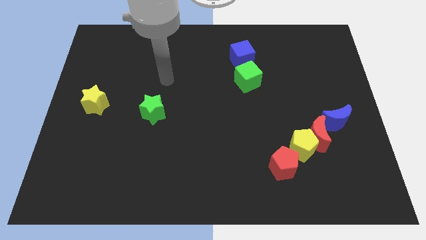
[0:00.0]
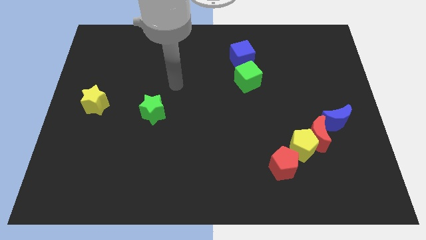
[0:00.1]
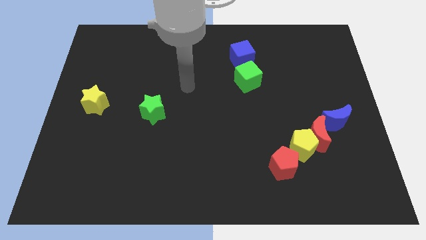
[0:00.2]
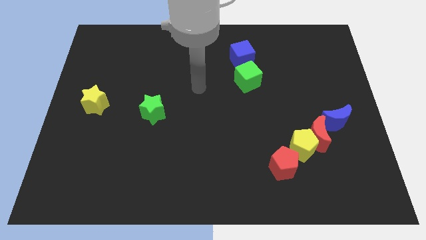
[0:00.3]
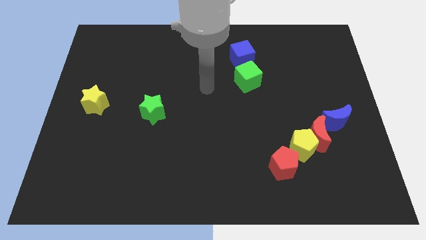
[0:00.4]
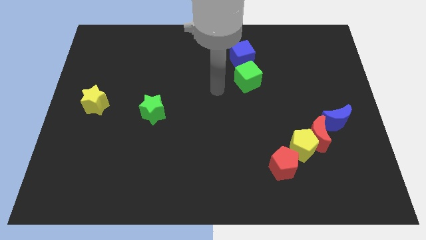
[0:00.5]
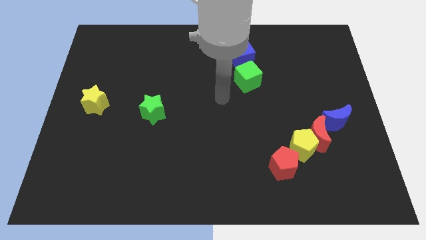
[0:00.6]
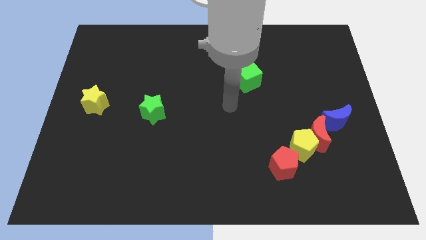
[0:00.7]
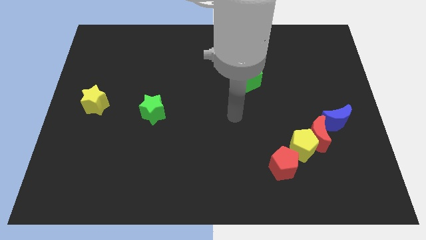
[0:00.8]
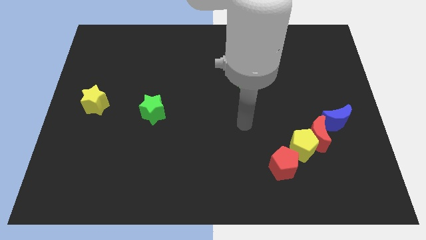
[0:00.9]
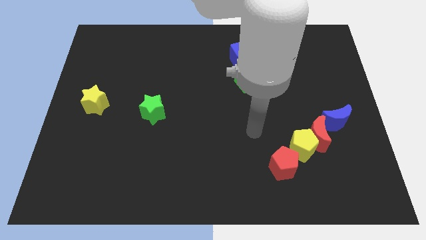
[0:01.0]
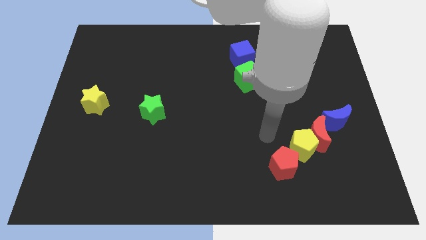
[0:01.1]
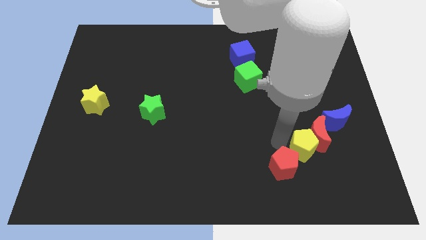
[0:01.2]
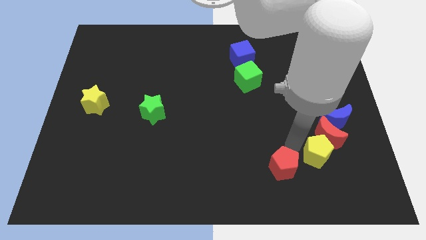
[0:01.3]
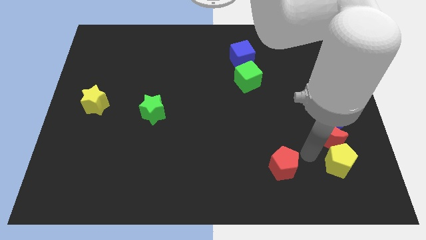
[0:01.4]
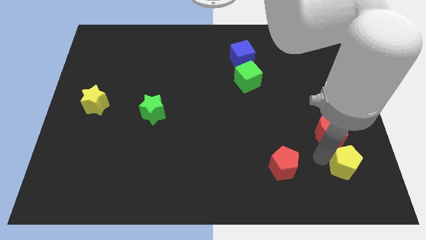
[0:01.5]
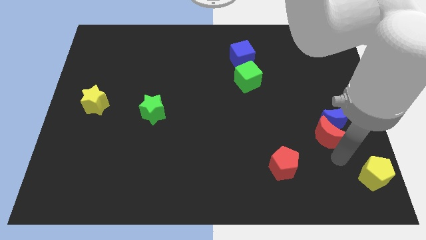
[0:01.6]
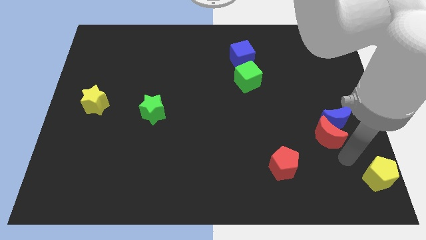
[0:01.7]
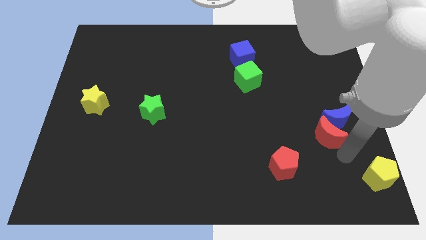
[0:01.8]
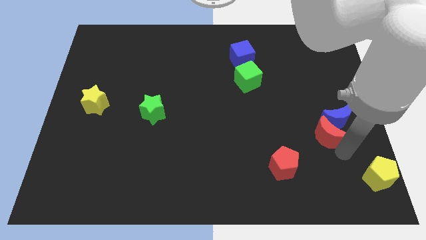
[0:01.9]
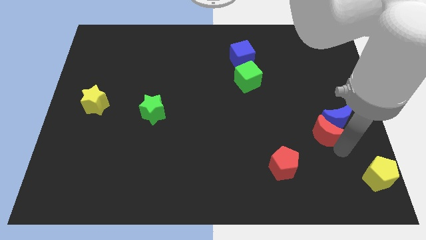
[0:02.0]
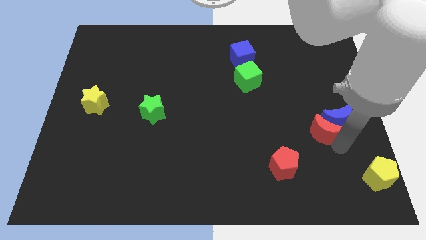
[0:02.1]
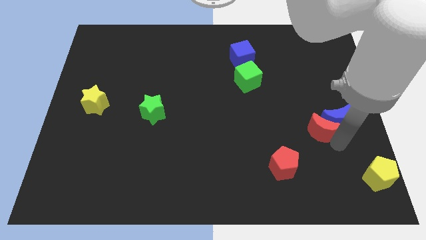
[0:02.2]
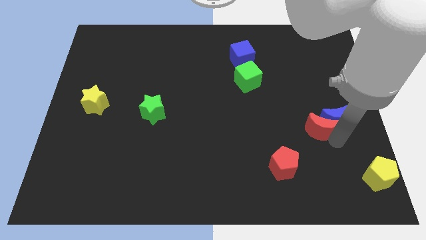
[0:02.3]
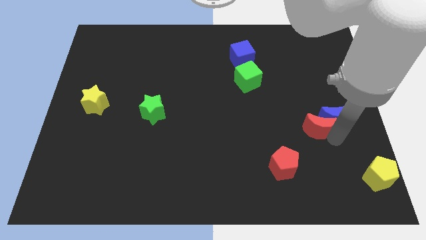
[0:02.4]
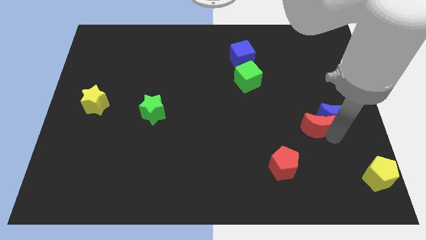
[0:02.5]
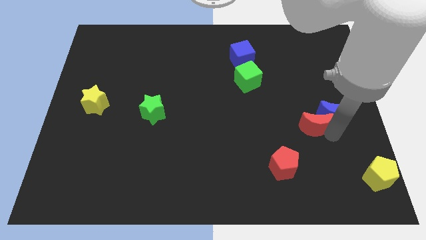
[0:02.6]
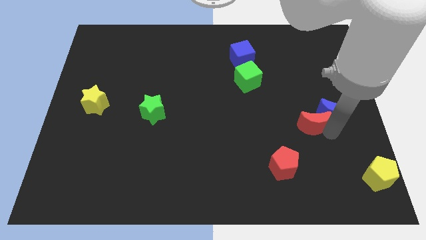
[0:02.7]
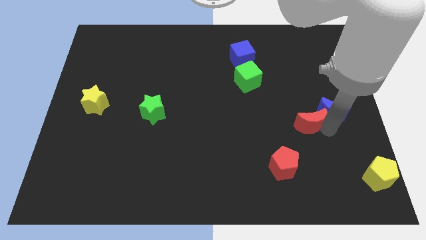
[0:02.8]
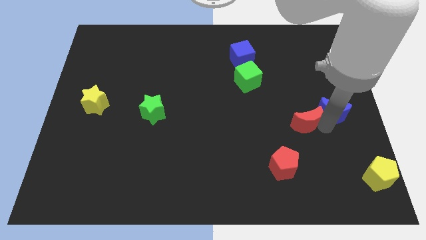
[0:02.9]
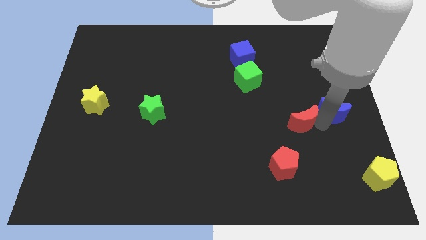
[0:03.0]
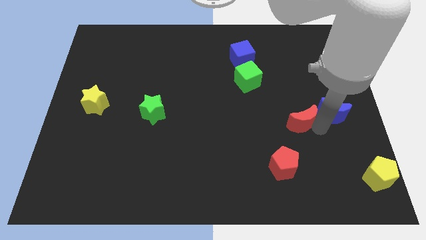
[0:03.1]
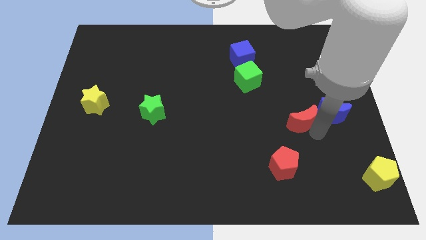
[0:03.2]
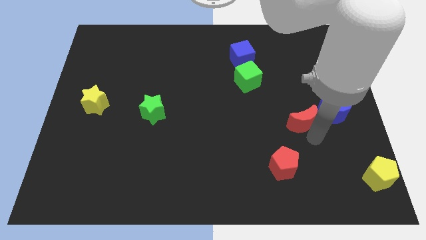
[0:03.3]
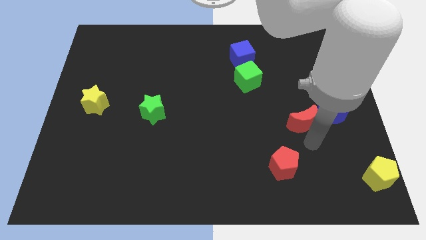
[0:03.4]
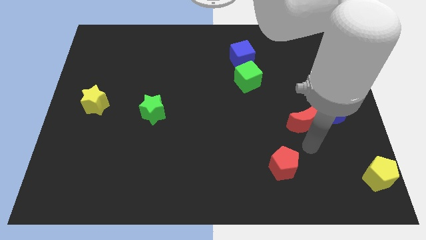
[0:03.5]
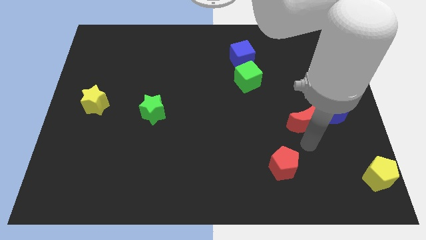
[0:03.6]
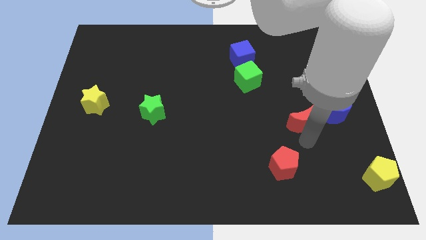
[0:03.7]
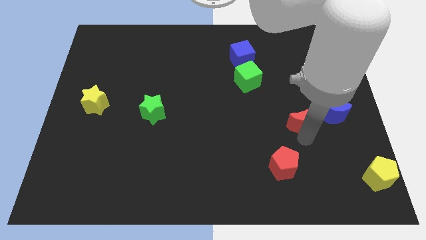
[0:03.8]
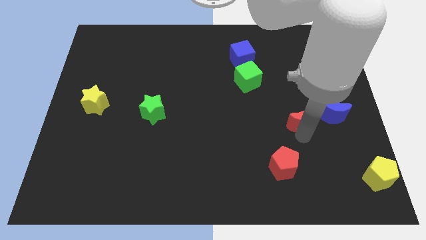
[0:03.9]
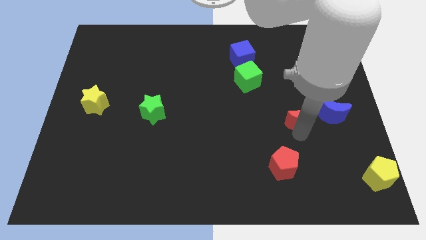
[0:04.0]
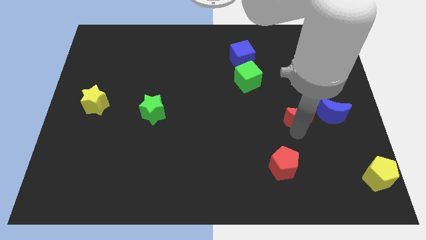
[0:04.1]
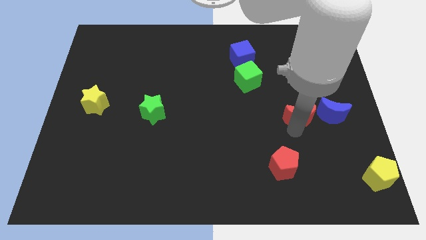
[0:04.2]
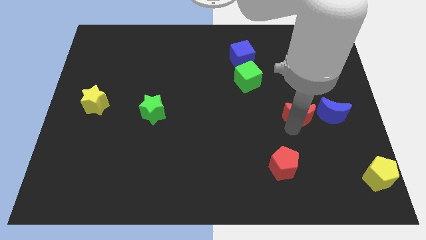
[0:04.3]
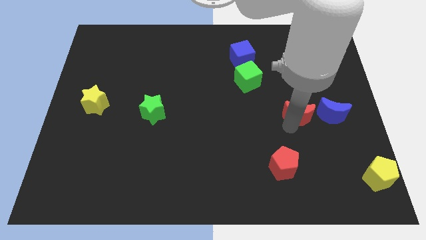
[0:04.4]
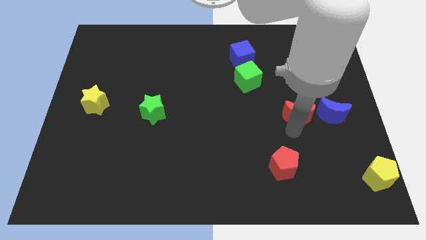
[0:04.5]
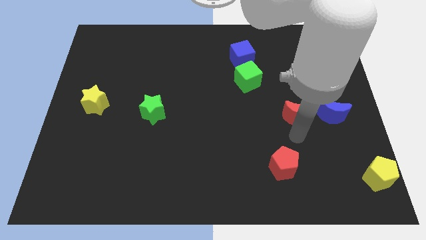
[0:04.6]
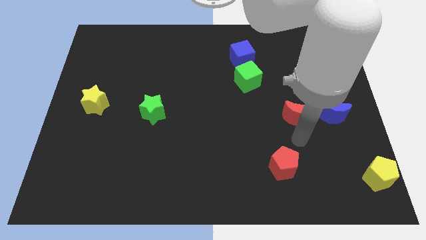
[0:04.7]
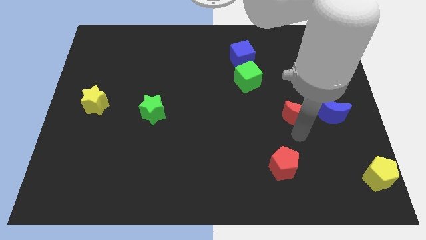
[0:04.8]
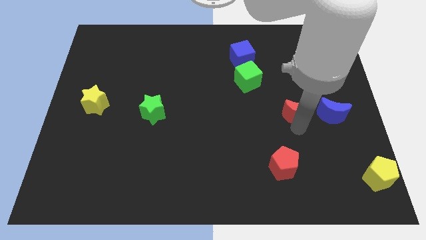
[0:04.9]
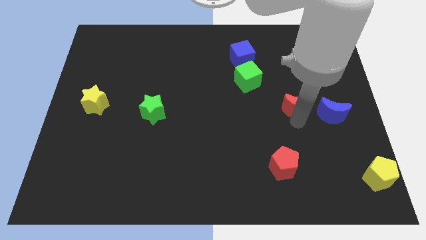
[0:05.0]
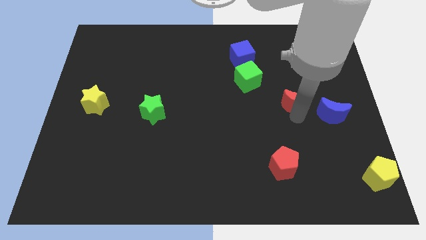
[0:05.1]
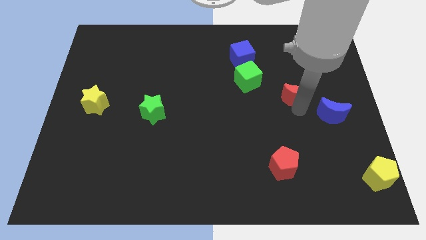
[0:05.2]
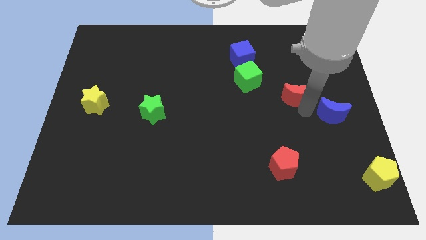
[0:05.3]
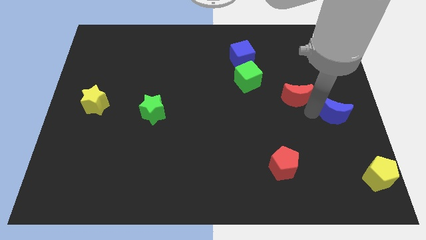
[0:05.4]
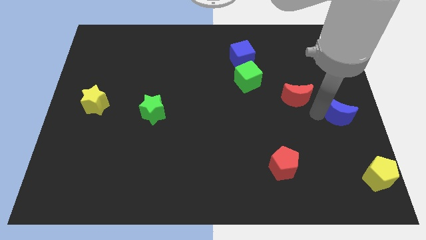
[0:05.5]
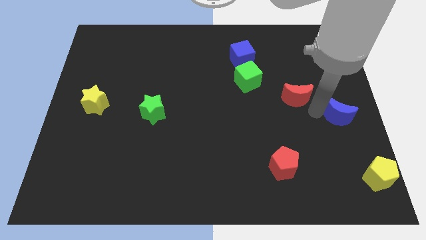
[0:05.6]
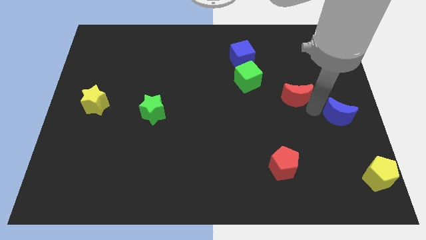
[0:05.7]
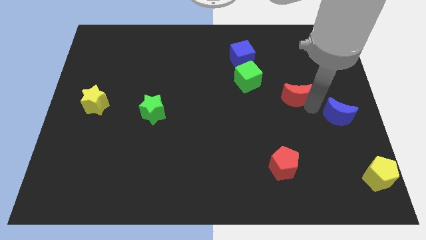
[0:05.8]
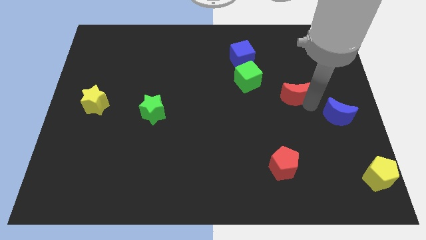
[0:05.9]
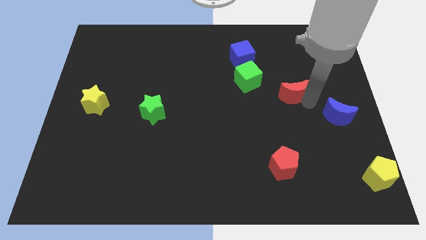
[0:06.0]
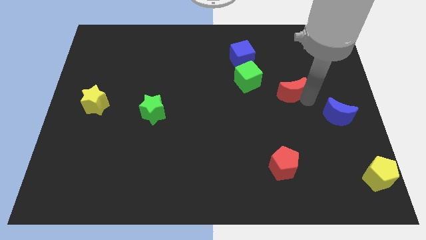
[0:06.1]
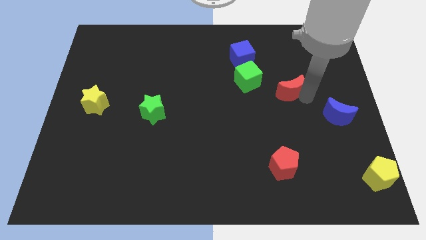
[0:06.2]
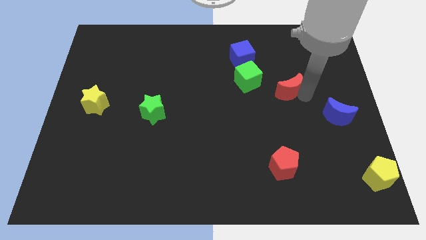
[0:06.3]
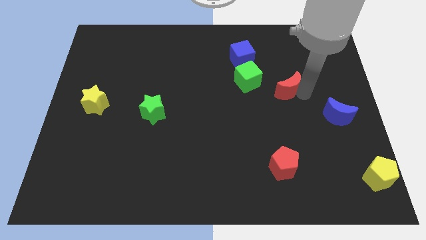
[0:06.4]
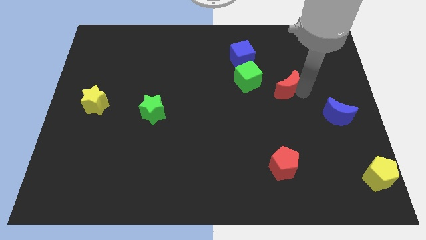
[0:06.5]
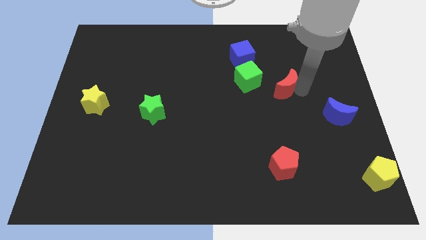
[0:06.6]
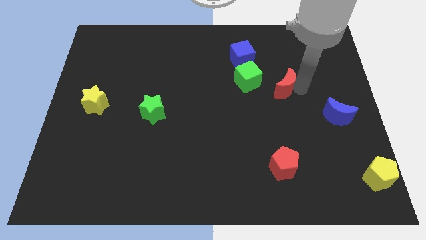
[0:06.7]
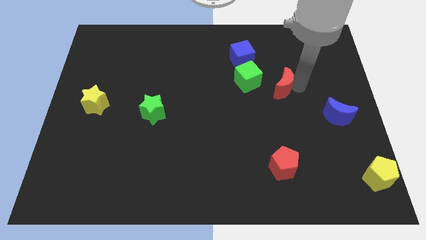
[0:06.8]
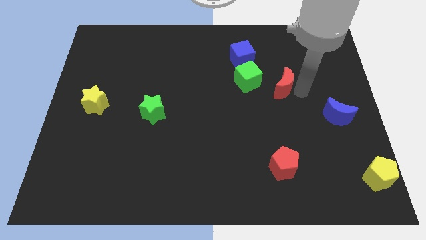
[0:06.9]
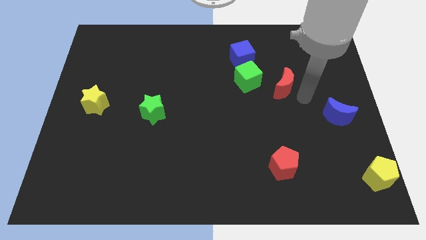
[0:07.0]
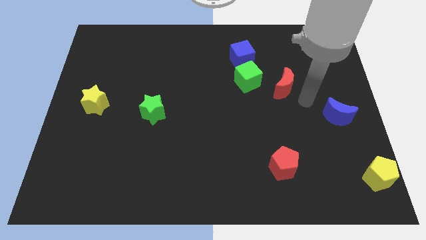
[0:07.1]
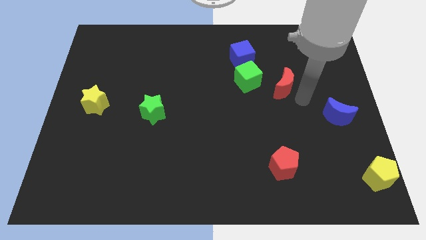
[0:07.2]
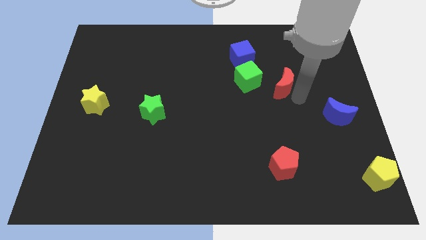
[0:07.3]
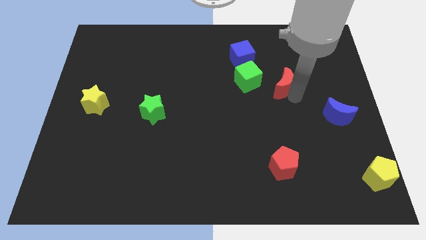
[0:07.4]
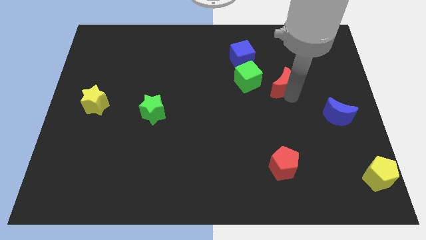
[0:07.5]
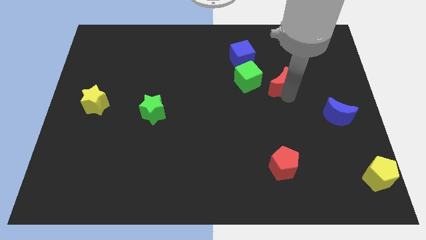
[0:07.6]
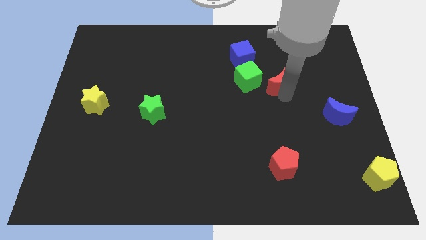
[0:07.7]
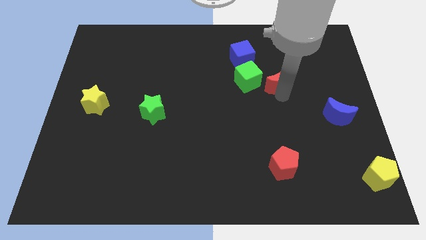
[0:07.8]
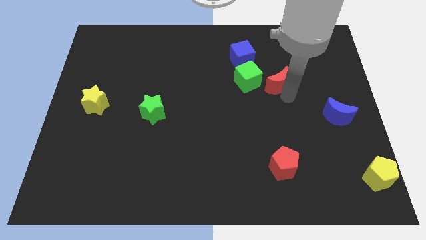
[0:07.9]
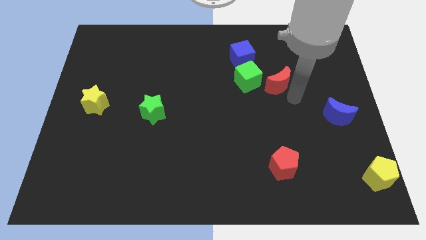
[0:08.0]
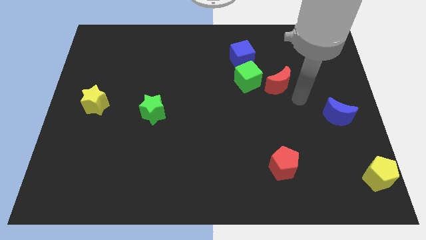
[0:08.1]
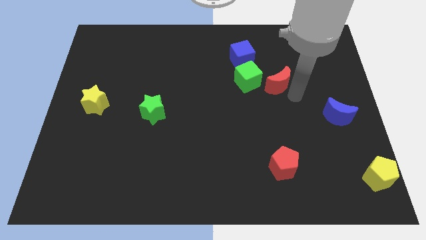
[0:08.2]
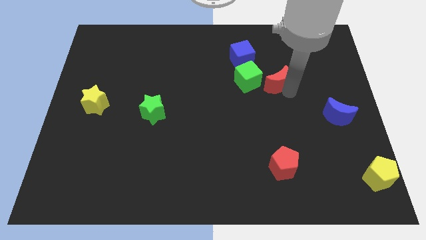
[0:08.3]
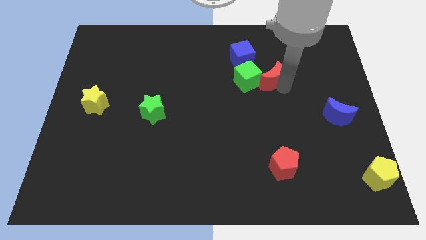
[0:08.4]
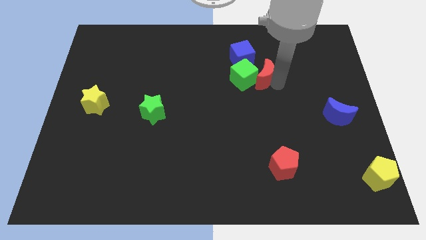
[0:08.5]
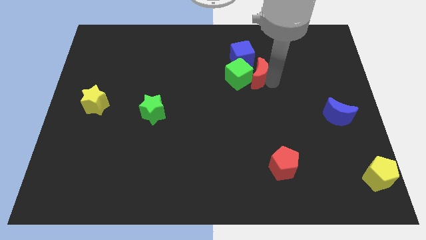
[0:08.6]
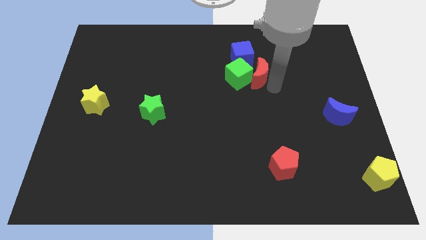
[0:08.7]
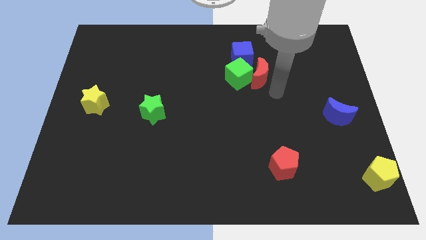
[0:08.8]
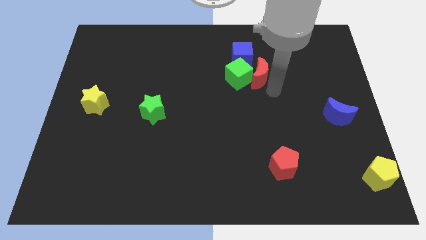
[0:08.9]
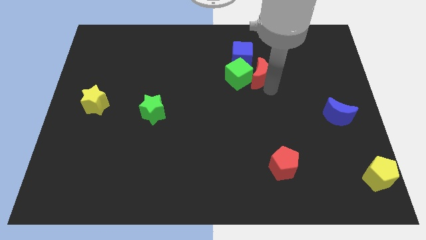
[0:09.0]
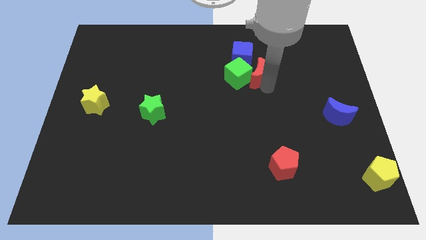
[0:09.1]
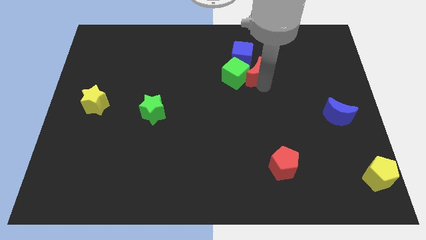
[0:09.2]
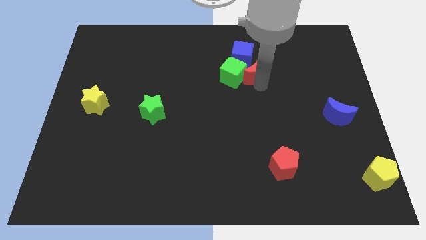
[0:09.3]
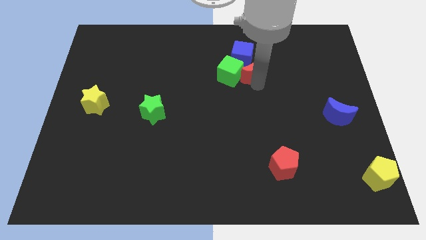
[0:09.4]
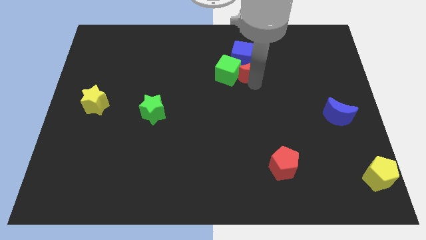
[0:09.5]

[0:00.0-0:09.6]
put the red moon to the blue cube
